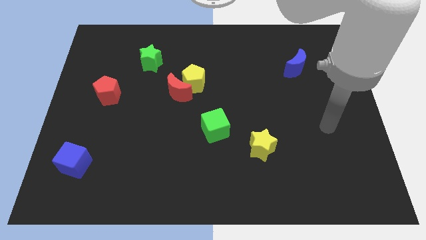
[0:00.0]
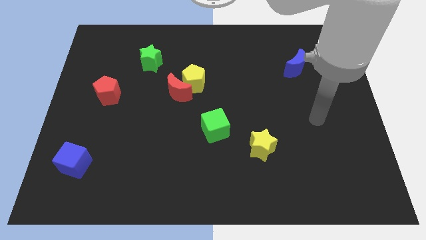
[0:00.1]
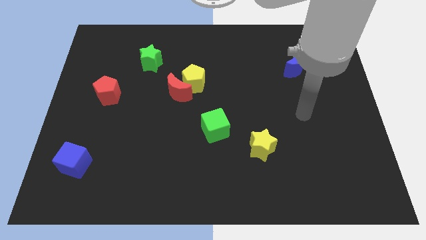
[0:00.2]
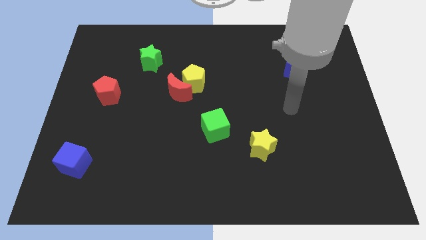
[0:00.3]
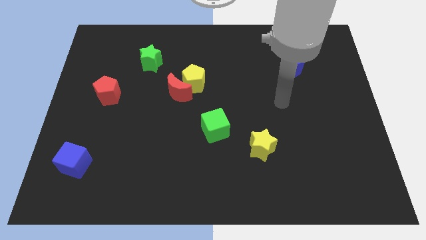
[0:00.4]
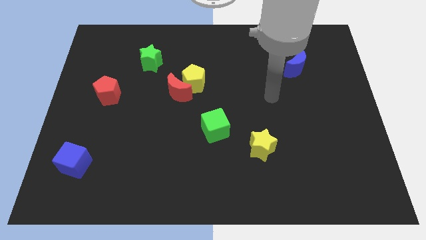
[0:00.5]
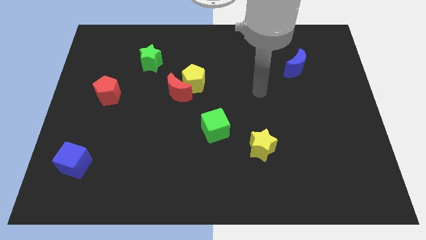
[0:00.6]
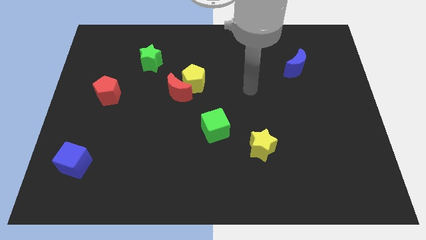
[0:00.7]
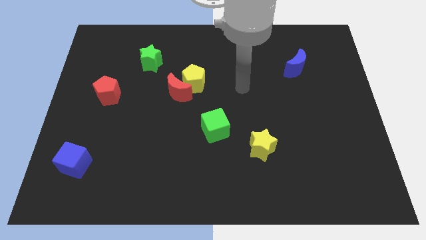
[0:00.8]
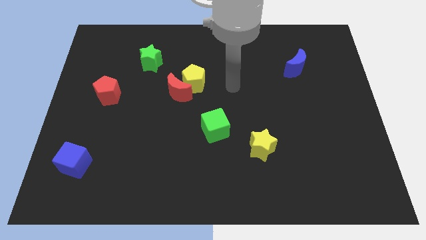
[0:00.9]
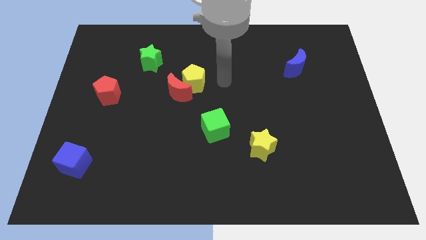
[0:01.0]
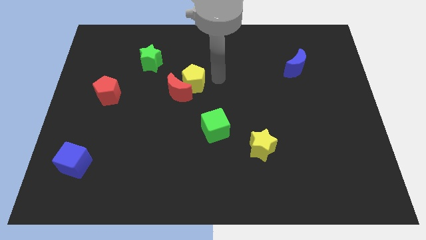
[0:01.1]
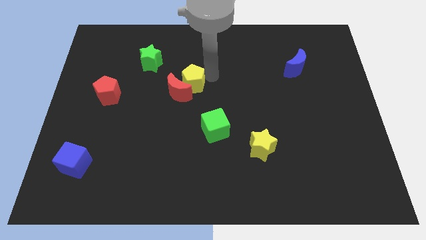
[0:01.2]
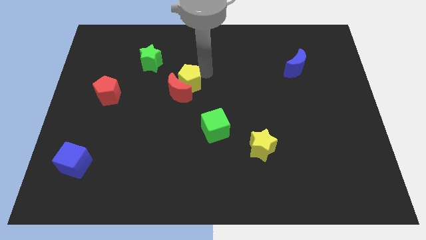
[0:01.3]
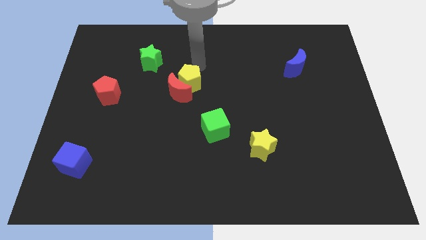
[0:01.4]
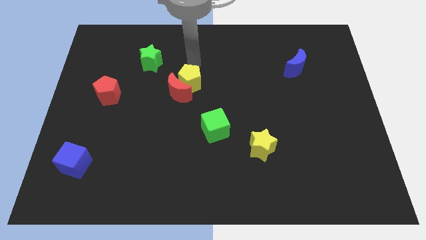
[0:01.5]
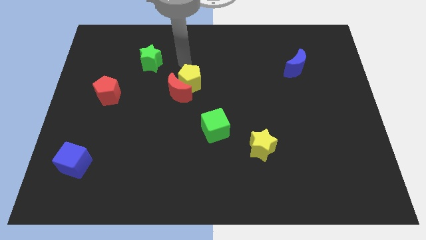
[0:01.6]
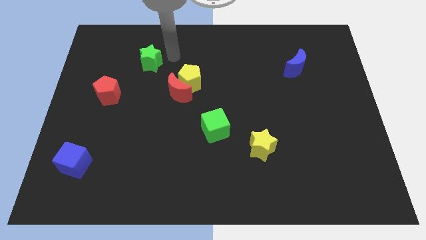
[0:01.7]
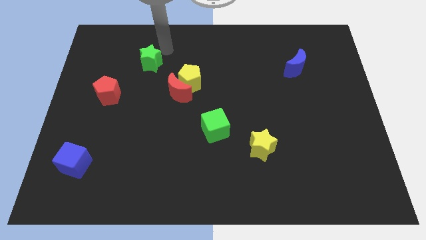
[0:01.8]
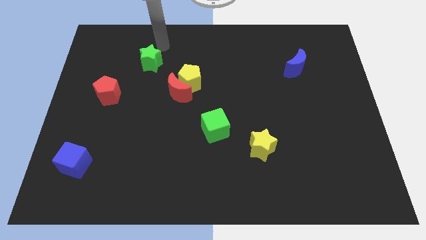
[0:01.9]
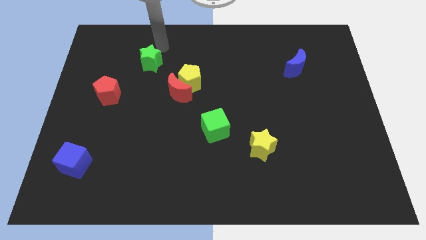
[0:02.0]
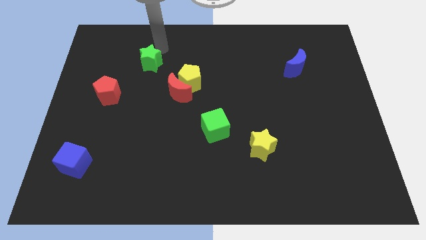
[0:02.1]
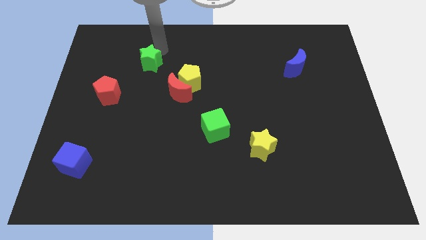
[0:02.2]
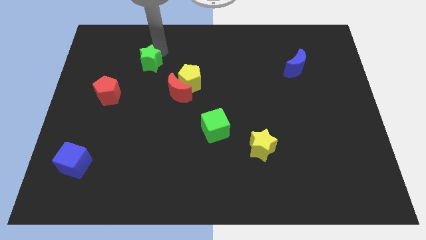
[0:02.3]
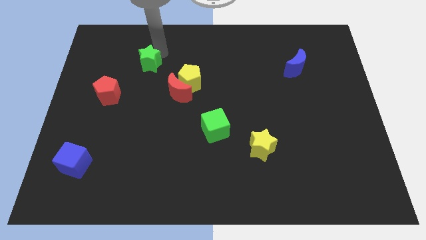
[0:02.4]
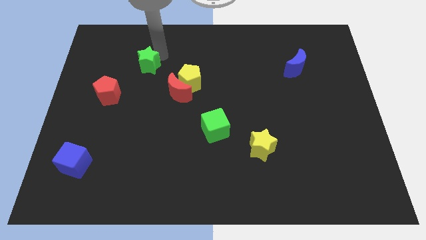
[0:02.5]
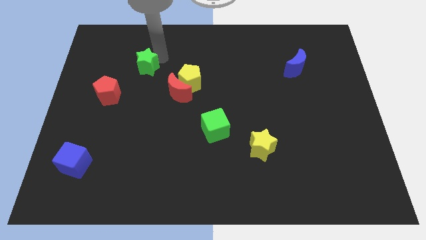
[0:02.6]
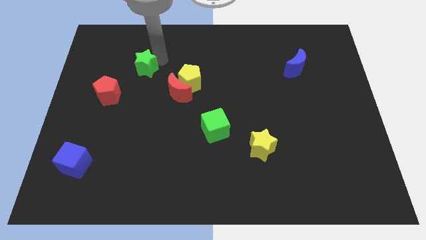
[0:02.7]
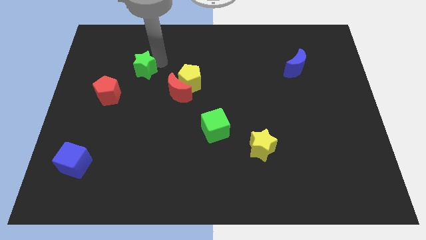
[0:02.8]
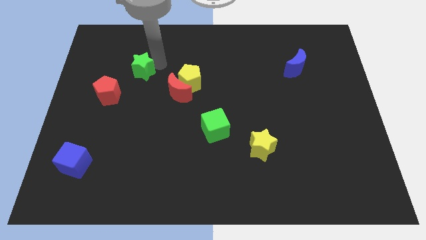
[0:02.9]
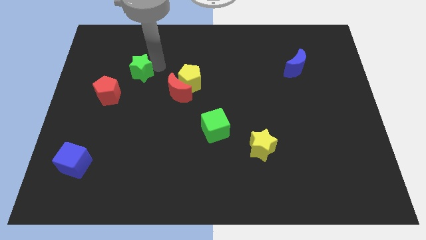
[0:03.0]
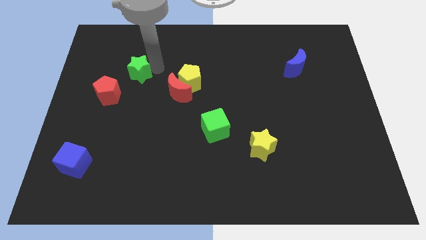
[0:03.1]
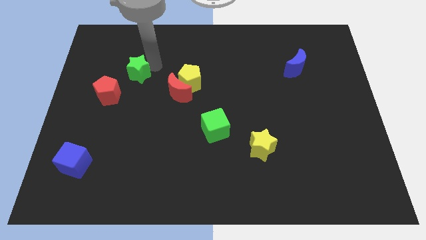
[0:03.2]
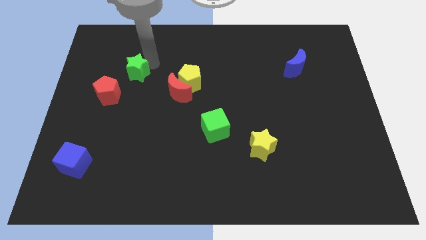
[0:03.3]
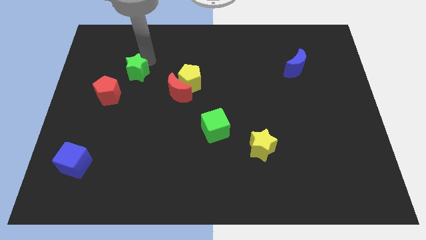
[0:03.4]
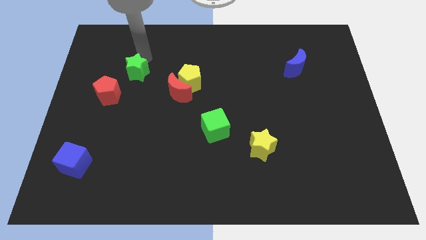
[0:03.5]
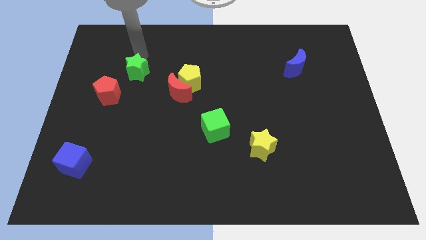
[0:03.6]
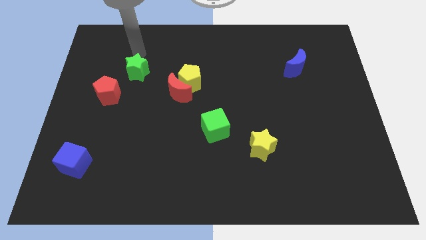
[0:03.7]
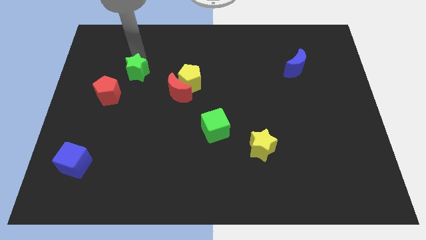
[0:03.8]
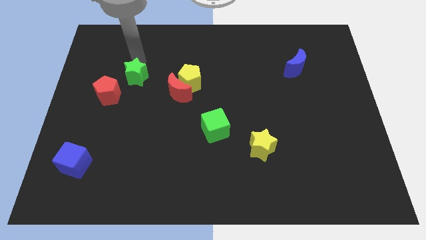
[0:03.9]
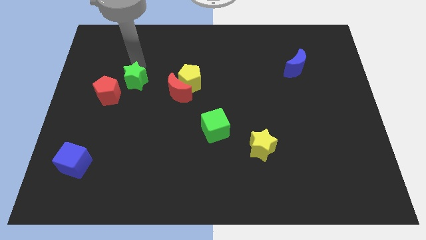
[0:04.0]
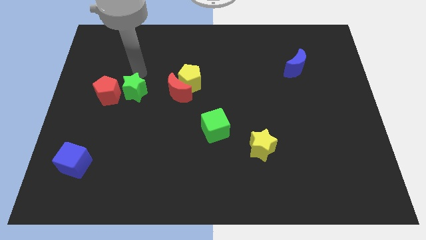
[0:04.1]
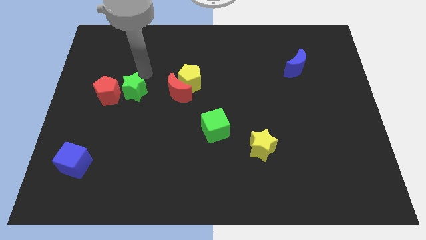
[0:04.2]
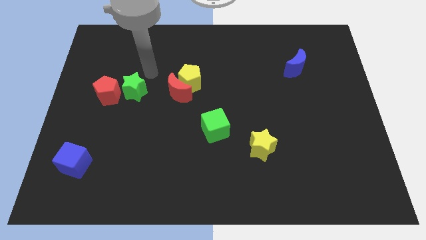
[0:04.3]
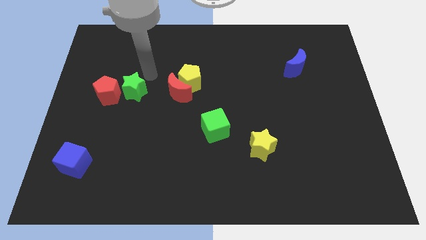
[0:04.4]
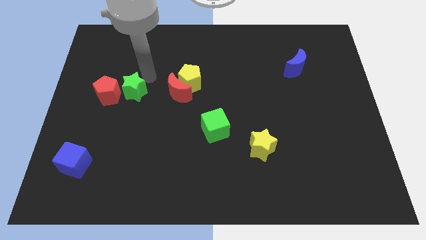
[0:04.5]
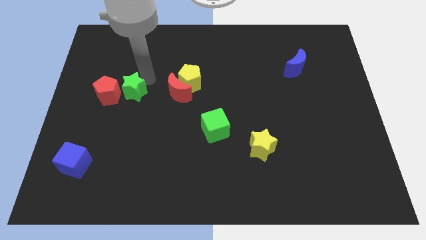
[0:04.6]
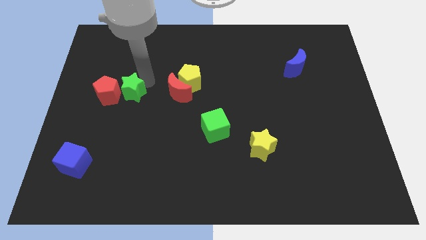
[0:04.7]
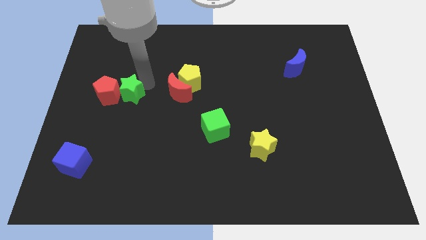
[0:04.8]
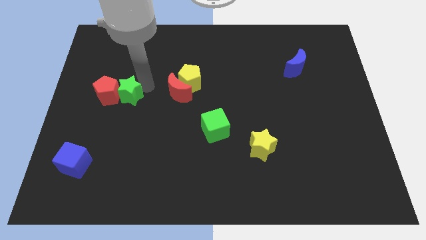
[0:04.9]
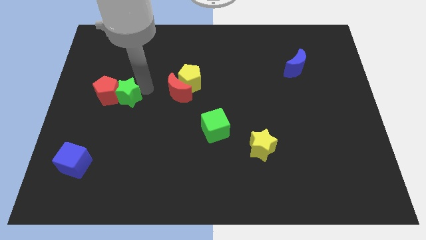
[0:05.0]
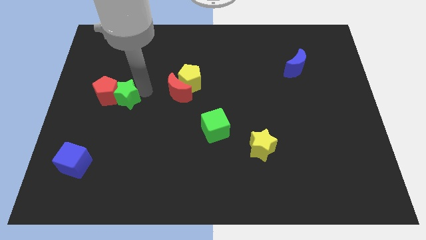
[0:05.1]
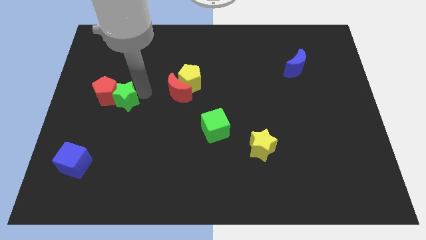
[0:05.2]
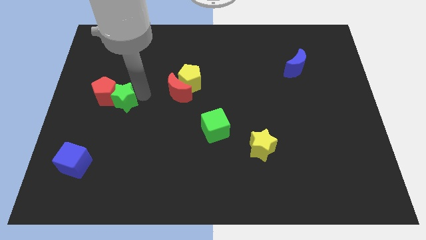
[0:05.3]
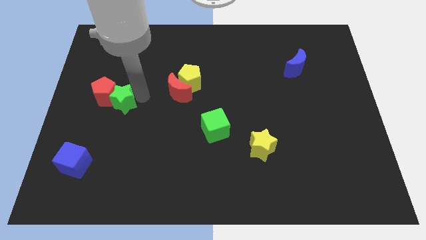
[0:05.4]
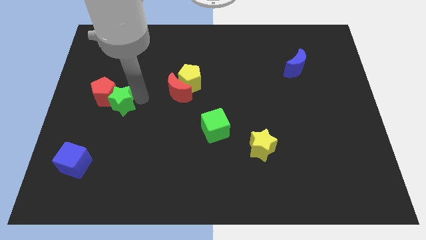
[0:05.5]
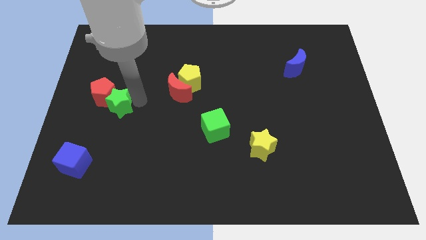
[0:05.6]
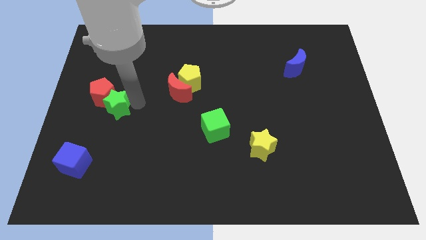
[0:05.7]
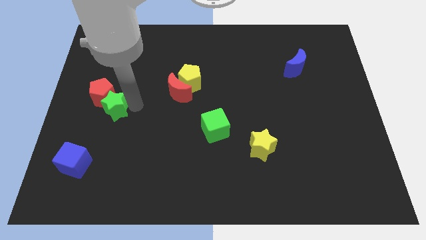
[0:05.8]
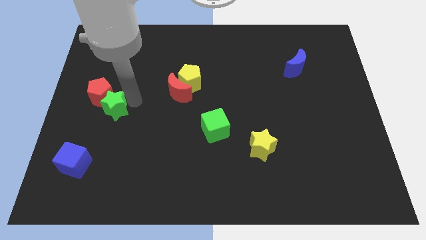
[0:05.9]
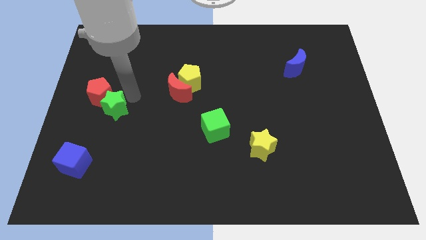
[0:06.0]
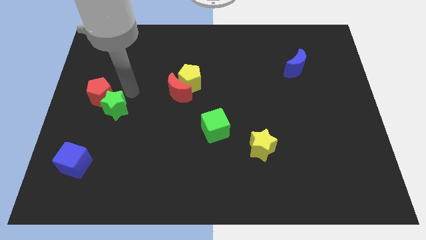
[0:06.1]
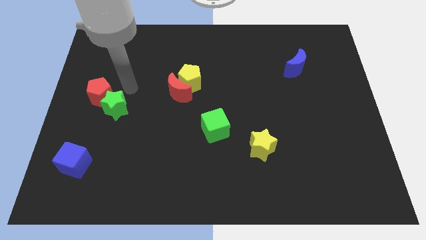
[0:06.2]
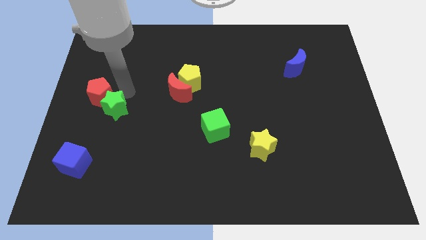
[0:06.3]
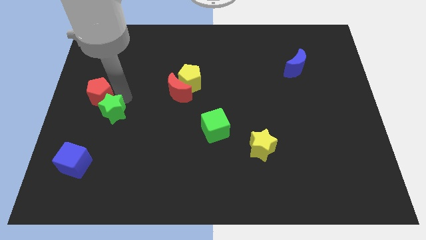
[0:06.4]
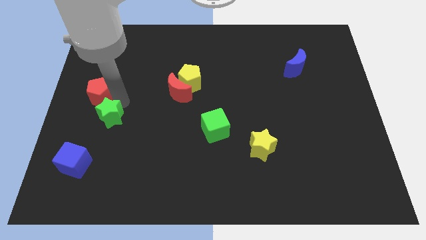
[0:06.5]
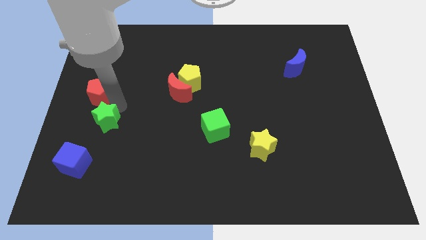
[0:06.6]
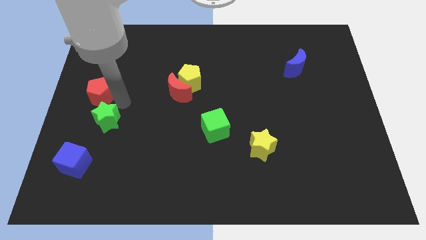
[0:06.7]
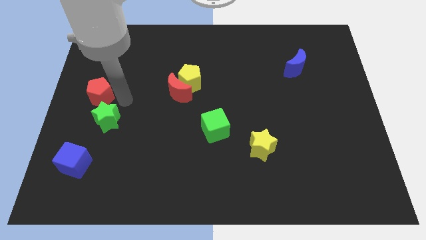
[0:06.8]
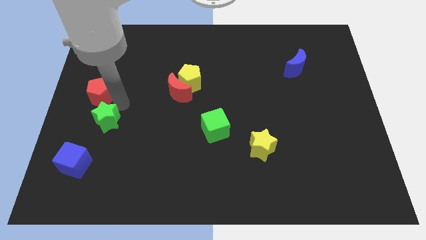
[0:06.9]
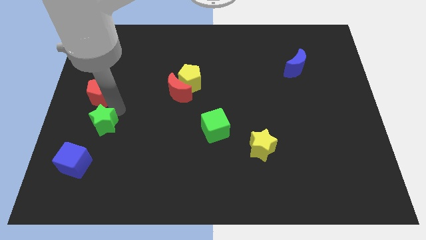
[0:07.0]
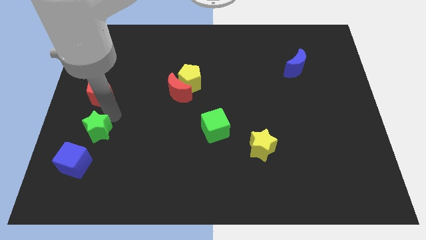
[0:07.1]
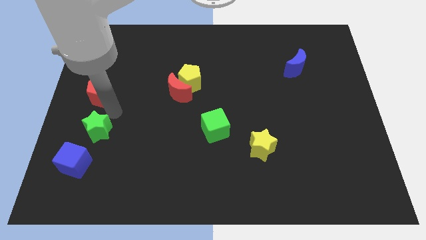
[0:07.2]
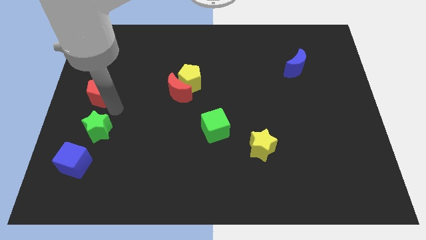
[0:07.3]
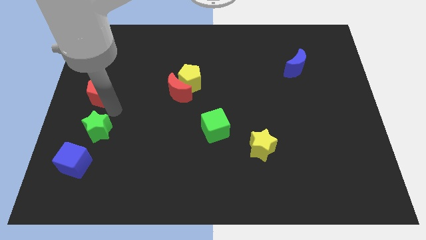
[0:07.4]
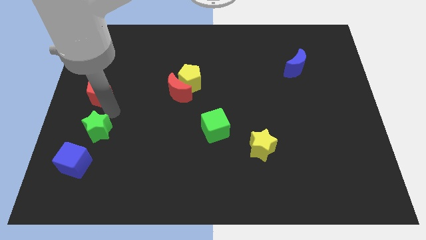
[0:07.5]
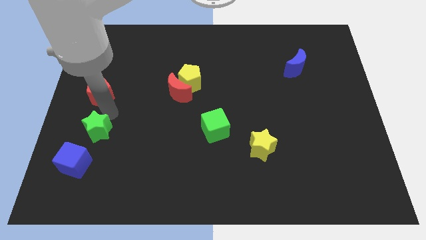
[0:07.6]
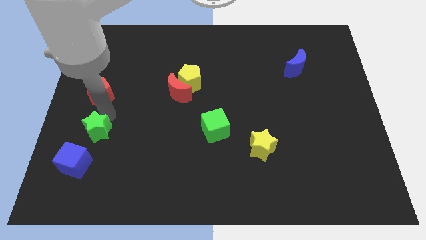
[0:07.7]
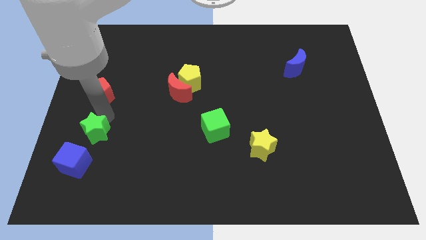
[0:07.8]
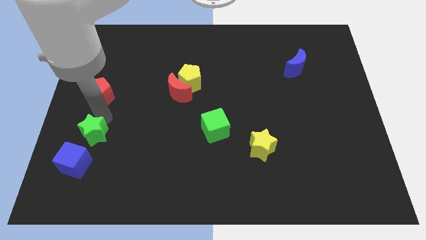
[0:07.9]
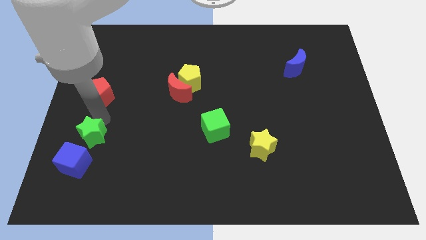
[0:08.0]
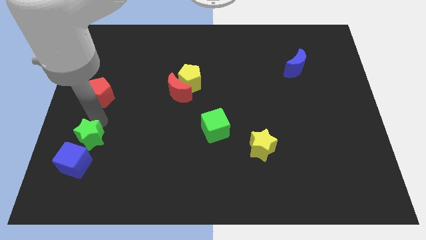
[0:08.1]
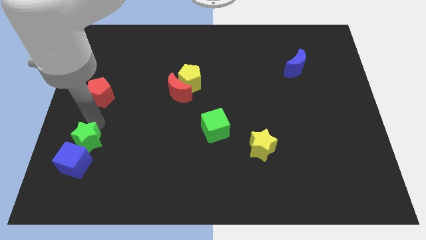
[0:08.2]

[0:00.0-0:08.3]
put the green star close to the blue cube
